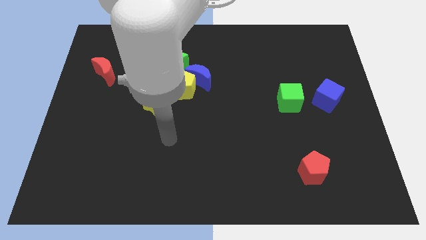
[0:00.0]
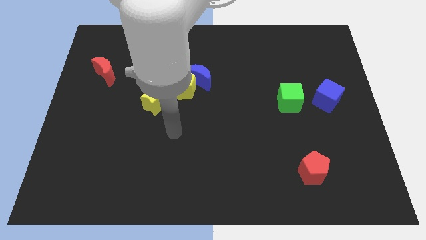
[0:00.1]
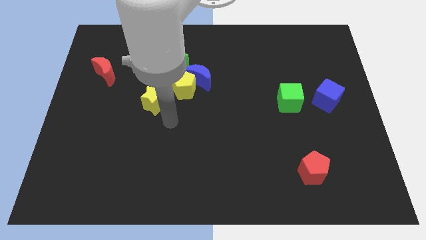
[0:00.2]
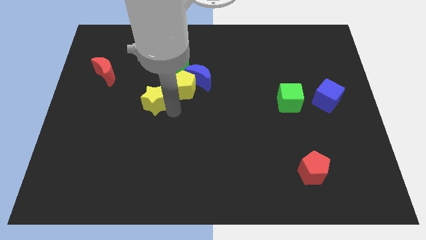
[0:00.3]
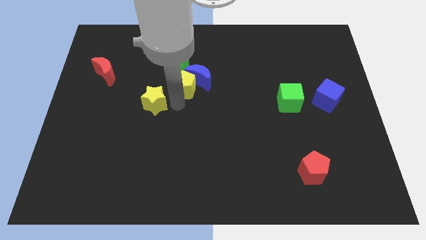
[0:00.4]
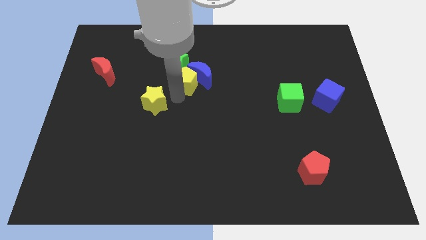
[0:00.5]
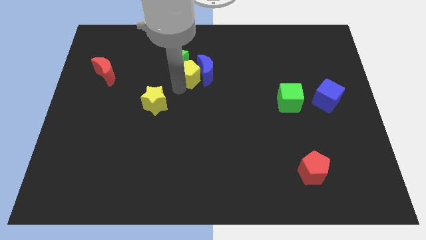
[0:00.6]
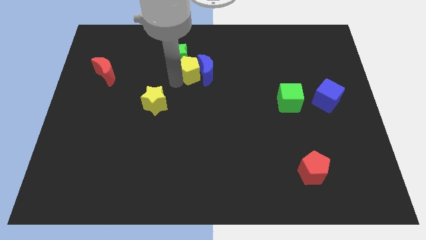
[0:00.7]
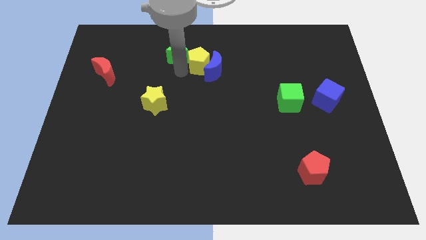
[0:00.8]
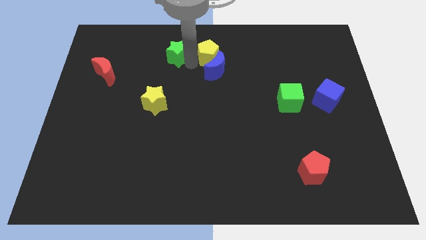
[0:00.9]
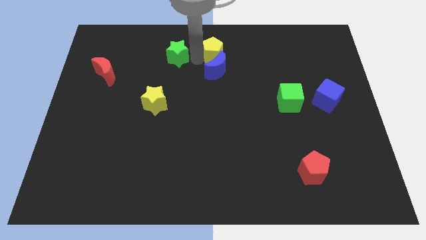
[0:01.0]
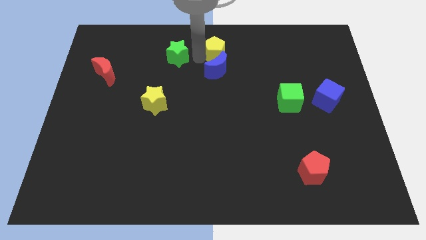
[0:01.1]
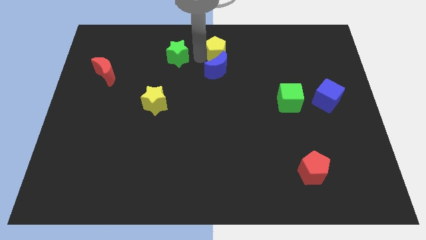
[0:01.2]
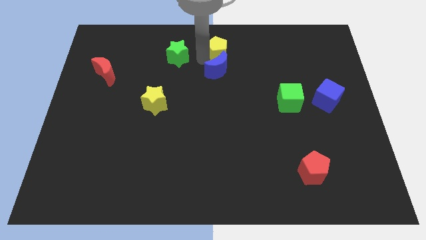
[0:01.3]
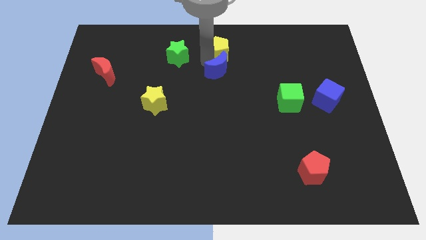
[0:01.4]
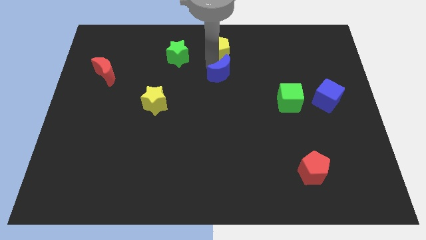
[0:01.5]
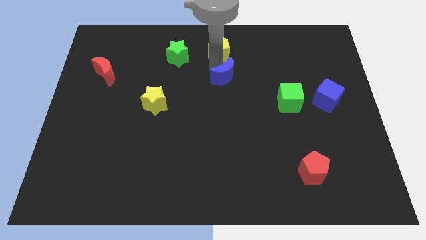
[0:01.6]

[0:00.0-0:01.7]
move the blue moon away from the yellow pentagon and green star

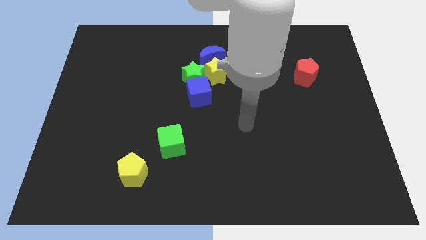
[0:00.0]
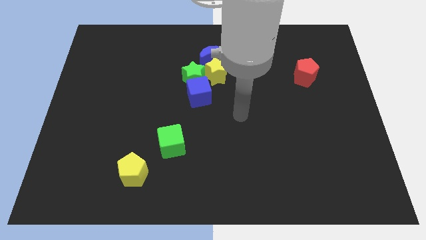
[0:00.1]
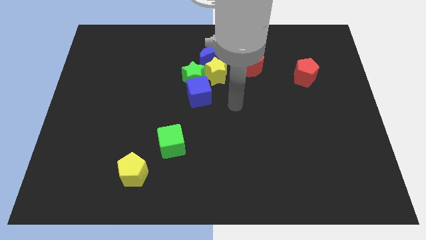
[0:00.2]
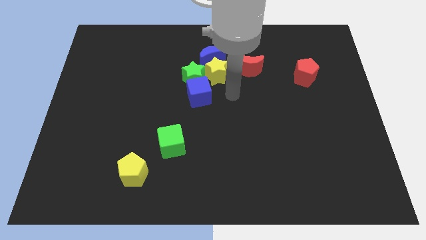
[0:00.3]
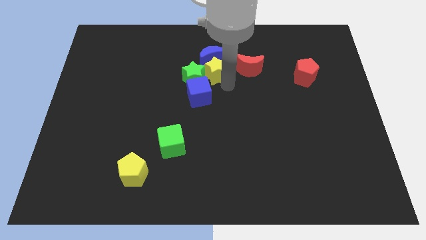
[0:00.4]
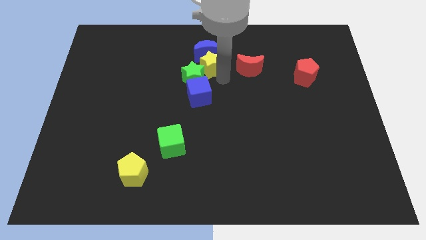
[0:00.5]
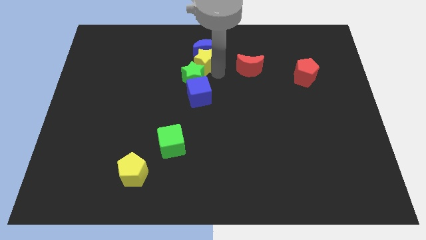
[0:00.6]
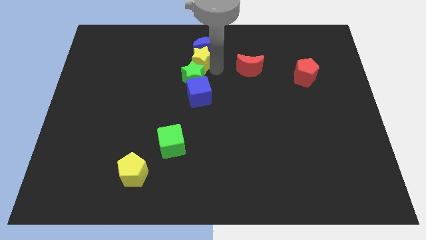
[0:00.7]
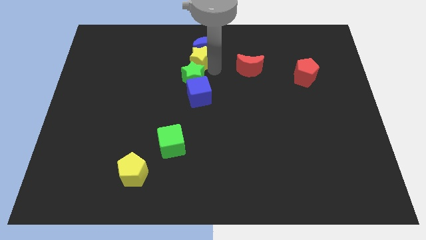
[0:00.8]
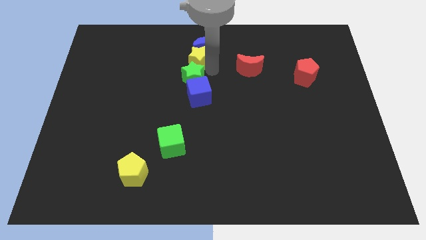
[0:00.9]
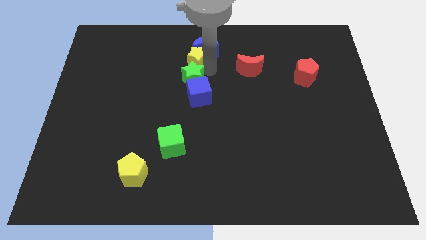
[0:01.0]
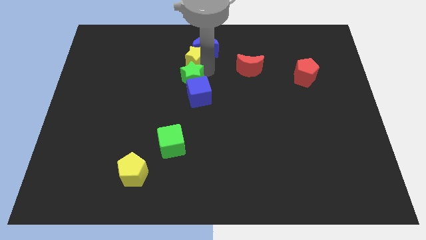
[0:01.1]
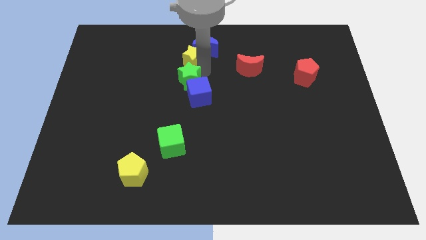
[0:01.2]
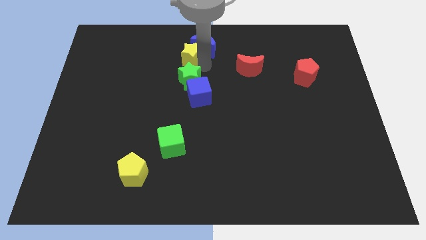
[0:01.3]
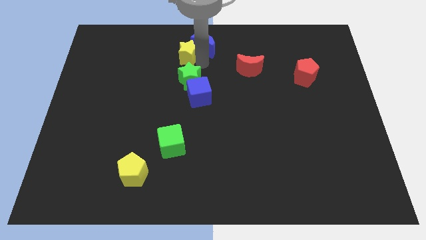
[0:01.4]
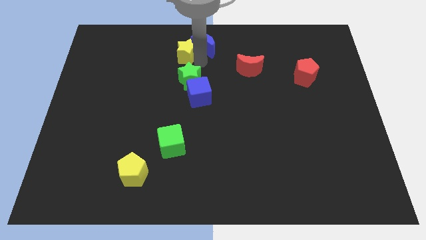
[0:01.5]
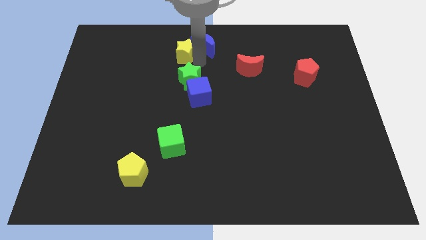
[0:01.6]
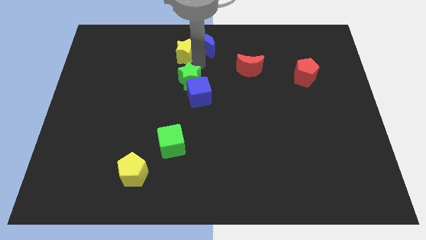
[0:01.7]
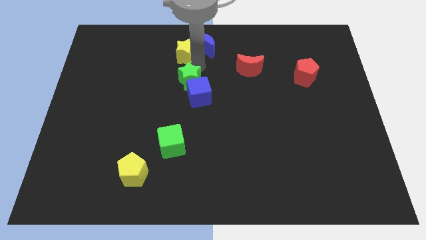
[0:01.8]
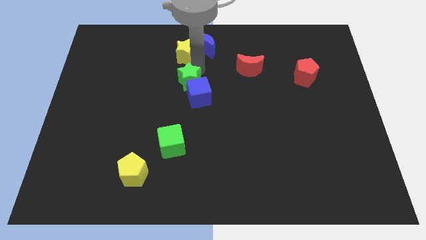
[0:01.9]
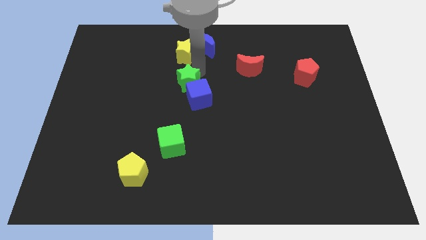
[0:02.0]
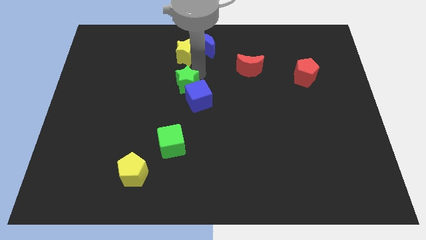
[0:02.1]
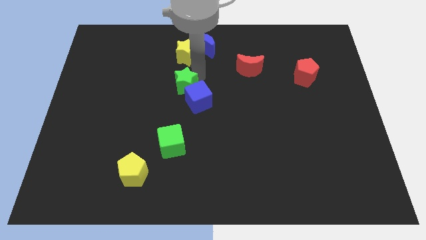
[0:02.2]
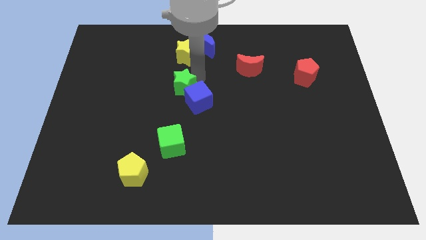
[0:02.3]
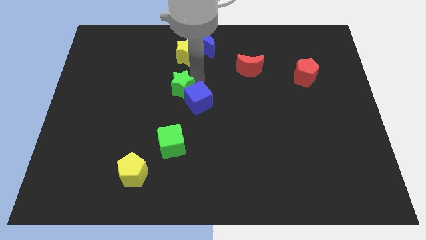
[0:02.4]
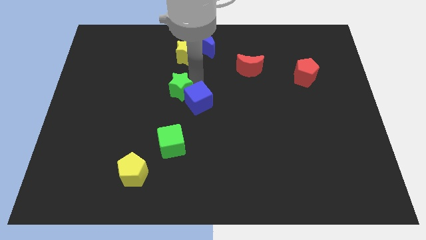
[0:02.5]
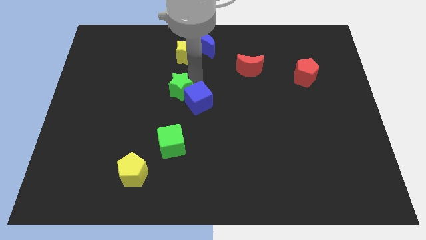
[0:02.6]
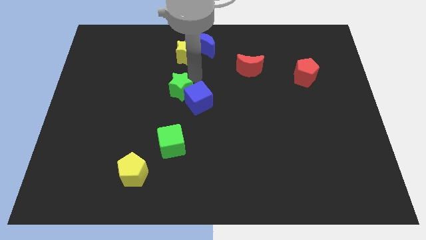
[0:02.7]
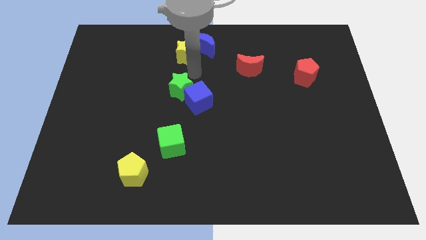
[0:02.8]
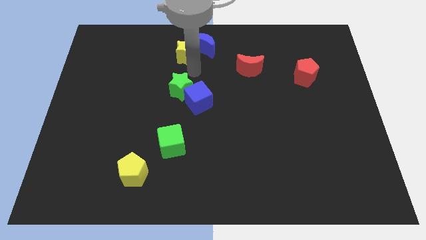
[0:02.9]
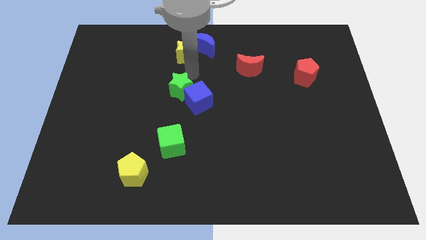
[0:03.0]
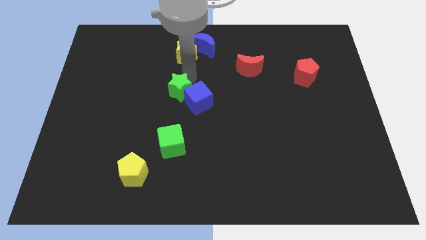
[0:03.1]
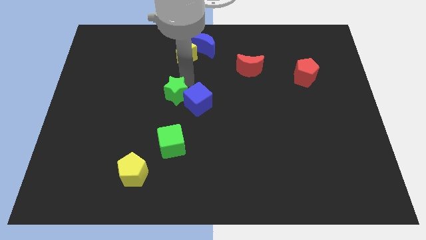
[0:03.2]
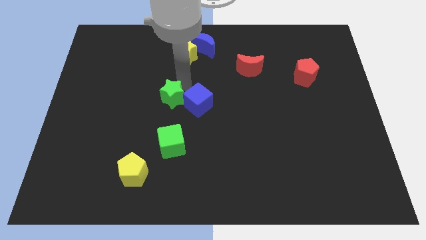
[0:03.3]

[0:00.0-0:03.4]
move the green star away from the clump

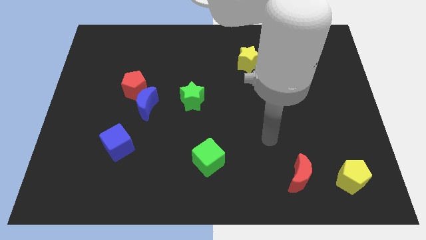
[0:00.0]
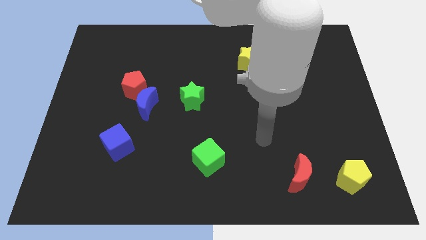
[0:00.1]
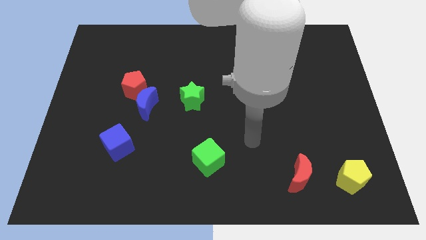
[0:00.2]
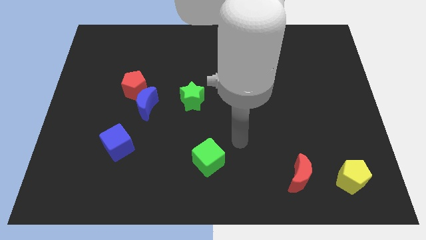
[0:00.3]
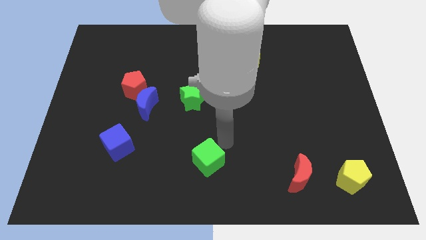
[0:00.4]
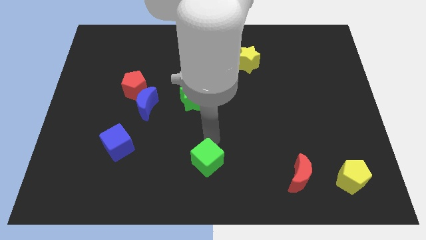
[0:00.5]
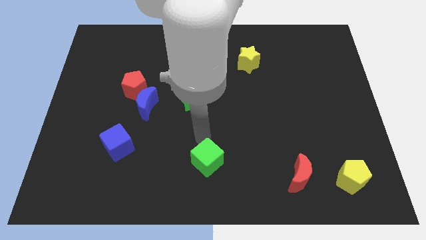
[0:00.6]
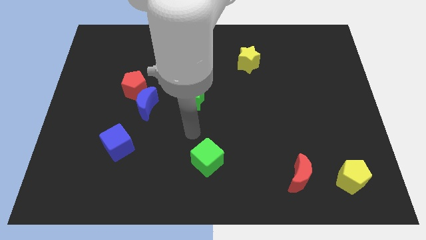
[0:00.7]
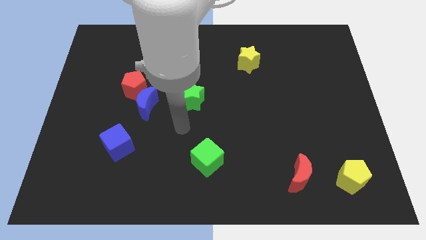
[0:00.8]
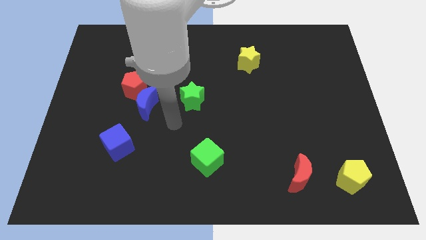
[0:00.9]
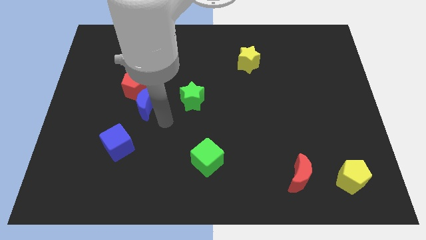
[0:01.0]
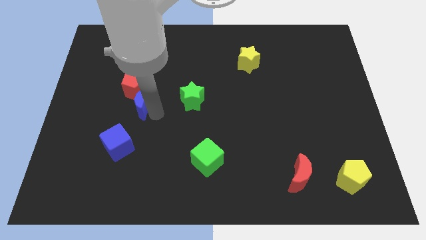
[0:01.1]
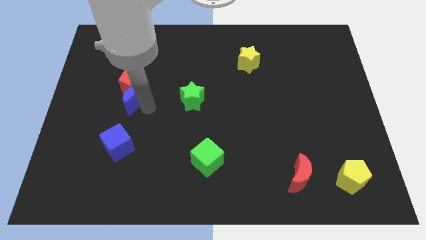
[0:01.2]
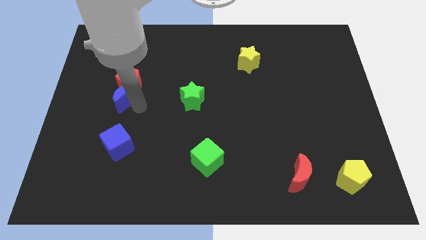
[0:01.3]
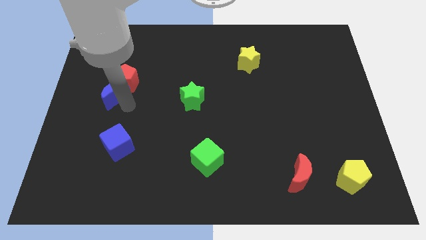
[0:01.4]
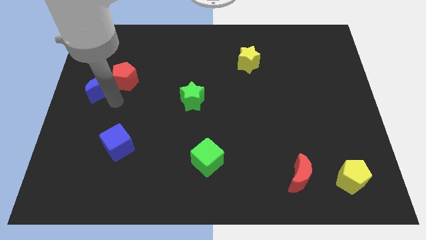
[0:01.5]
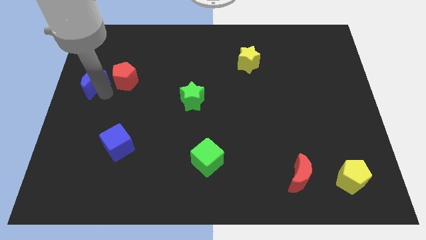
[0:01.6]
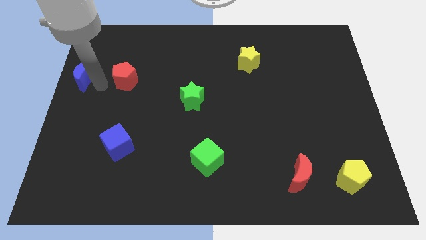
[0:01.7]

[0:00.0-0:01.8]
separate the red pentagon from the blue moon

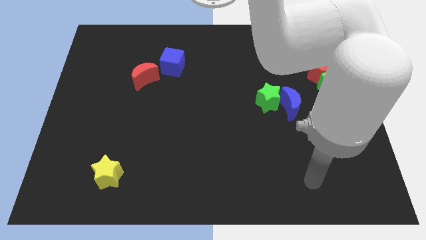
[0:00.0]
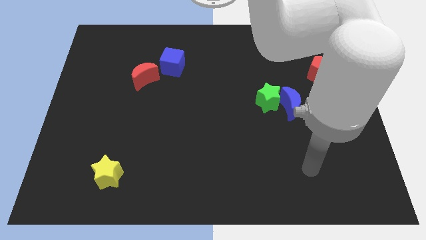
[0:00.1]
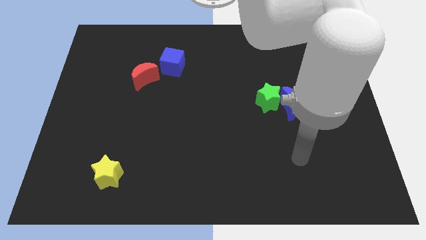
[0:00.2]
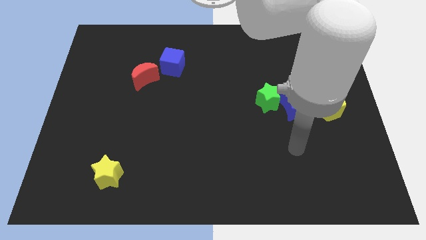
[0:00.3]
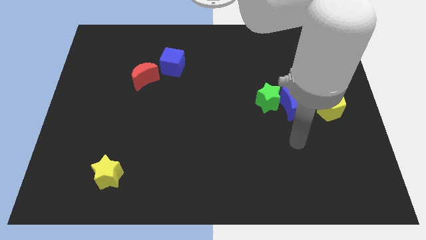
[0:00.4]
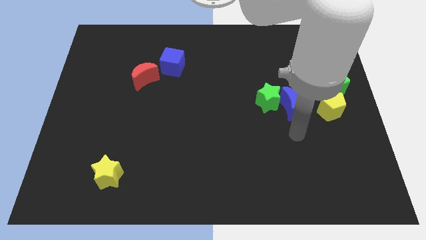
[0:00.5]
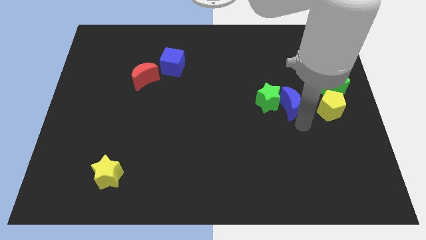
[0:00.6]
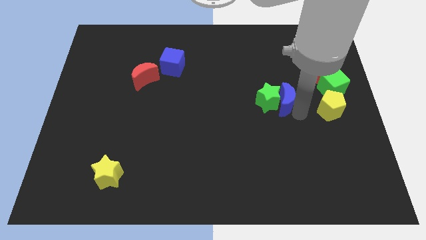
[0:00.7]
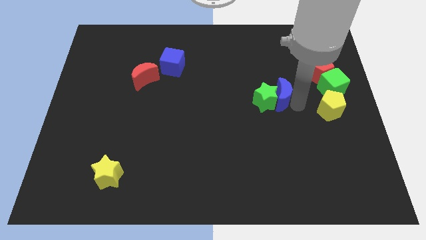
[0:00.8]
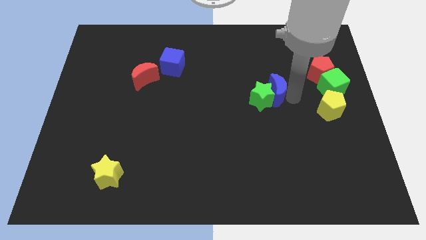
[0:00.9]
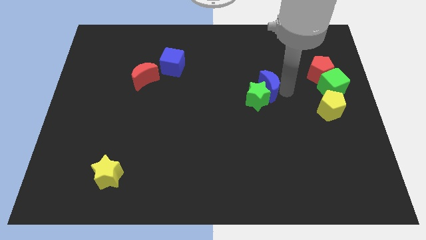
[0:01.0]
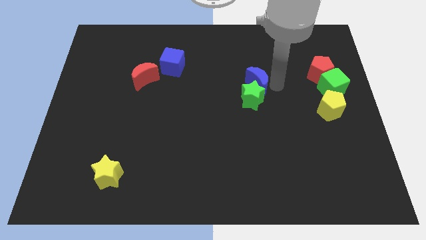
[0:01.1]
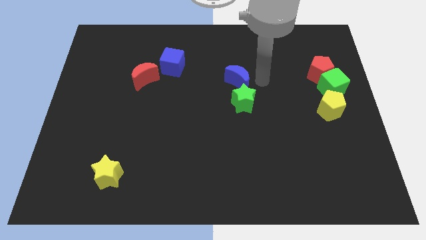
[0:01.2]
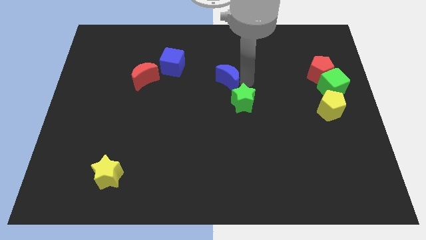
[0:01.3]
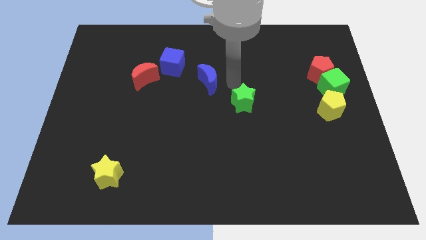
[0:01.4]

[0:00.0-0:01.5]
separate the green star from the blue moon

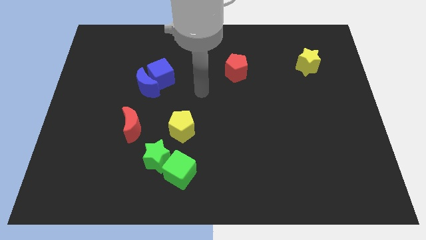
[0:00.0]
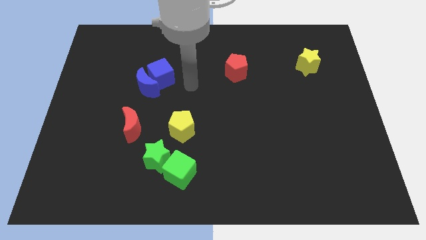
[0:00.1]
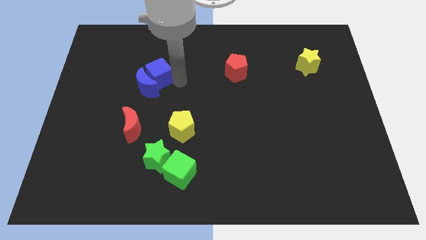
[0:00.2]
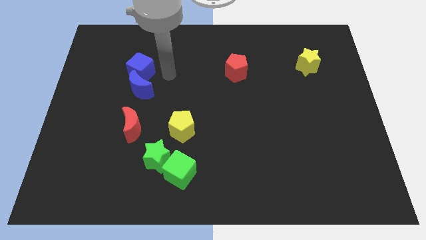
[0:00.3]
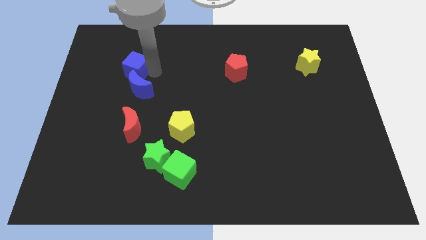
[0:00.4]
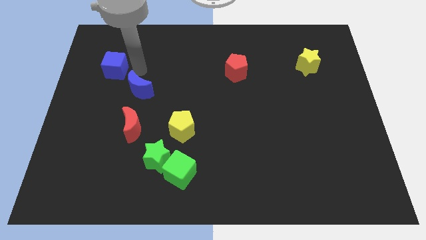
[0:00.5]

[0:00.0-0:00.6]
separate the blue moon from the blue cube

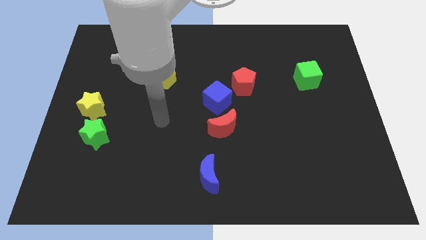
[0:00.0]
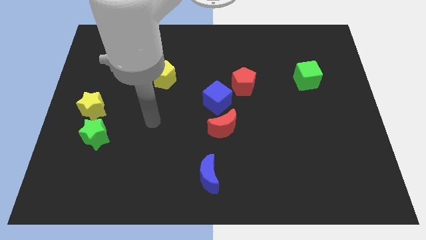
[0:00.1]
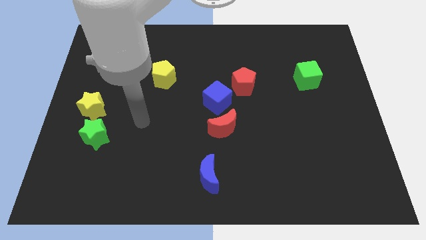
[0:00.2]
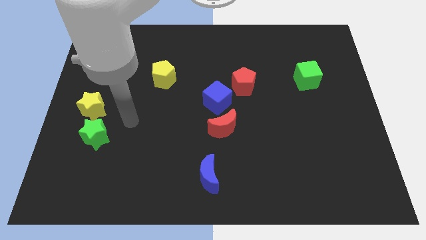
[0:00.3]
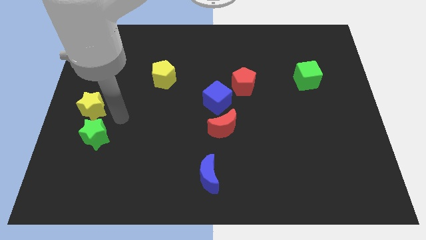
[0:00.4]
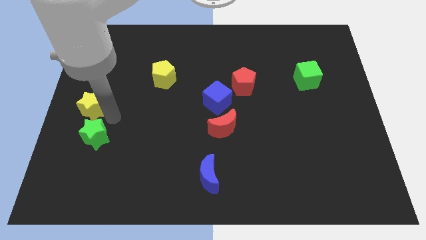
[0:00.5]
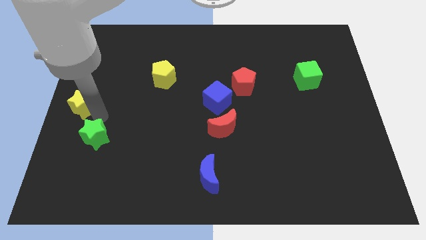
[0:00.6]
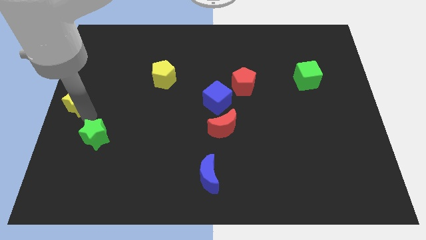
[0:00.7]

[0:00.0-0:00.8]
separate the green star from the yellow star
